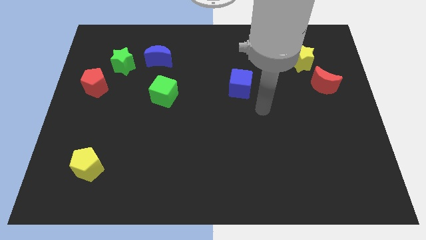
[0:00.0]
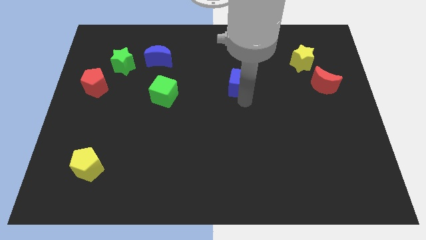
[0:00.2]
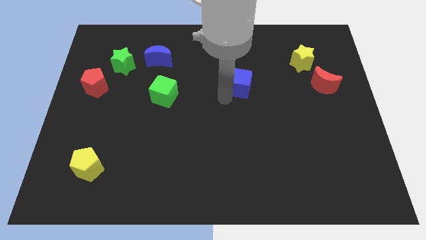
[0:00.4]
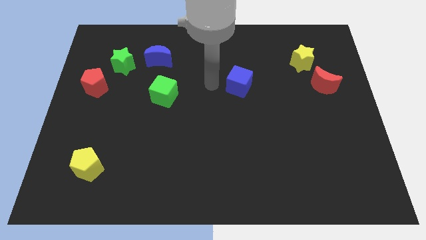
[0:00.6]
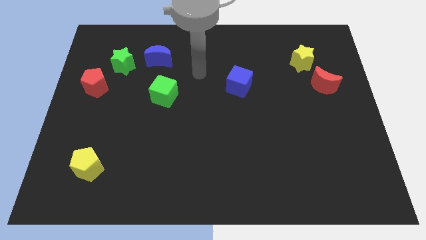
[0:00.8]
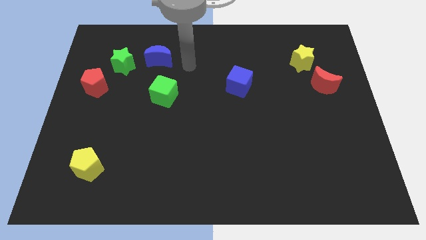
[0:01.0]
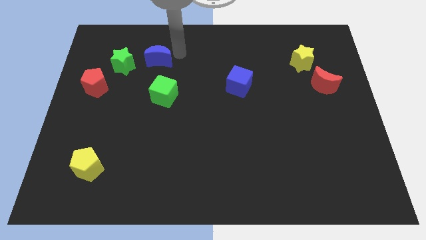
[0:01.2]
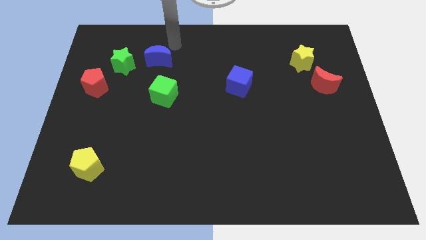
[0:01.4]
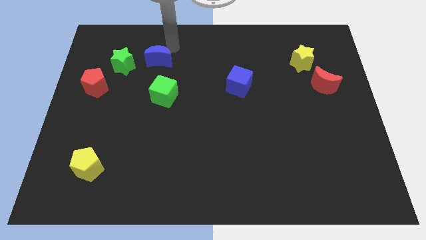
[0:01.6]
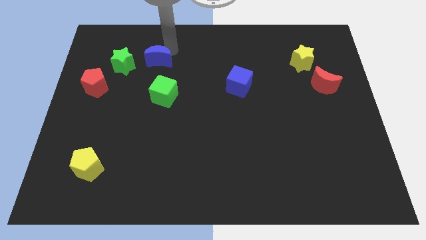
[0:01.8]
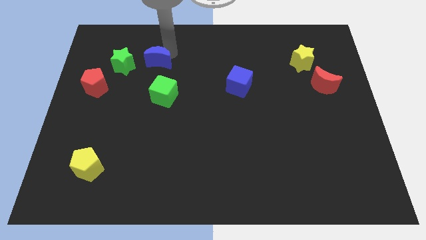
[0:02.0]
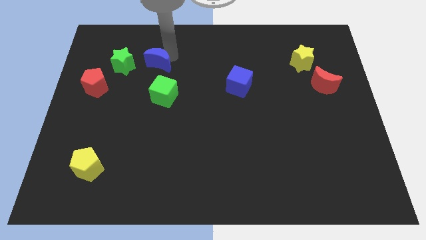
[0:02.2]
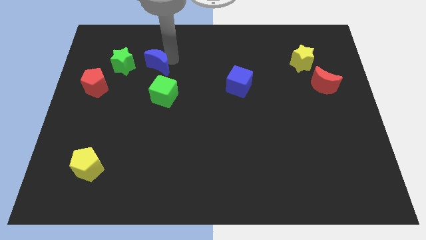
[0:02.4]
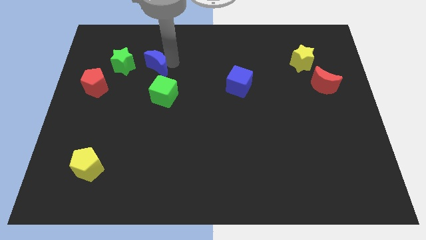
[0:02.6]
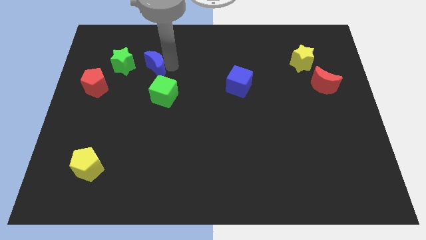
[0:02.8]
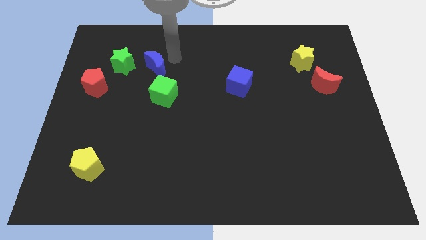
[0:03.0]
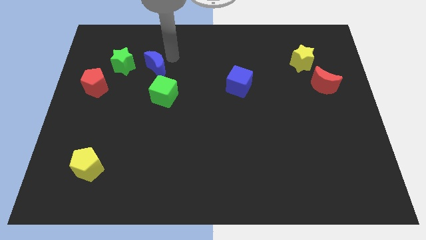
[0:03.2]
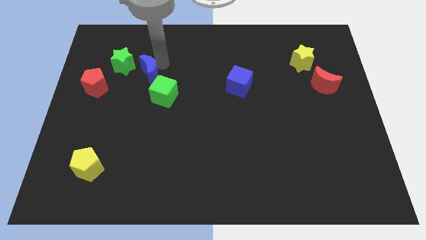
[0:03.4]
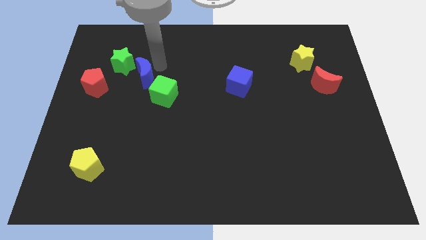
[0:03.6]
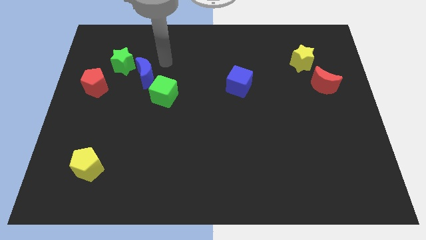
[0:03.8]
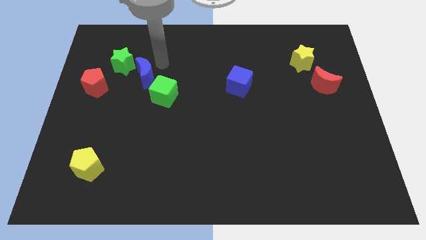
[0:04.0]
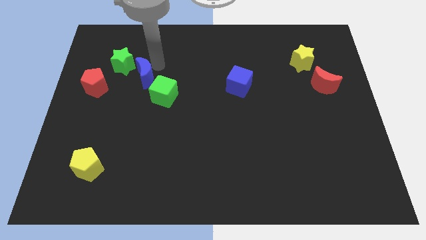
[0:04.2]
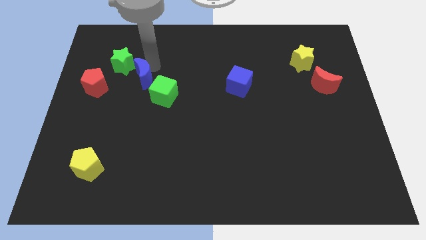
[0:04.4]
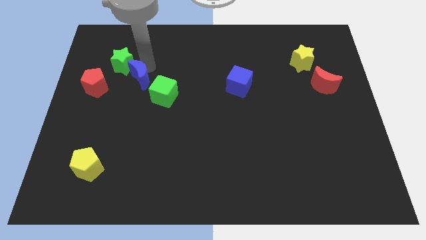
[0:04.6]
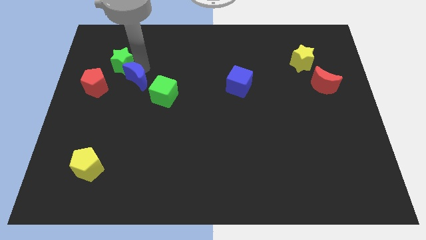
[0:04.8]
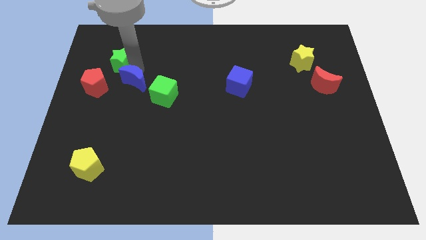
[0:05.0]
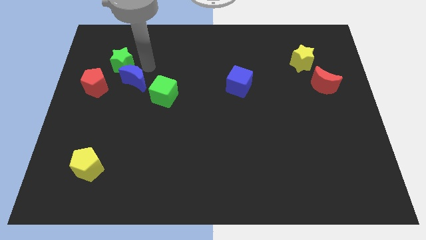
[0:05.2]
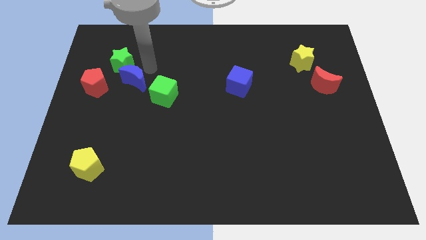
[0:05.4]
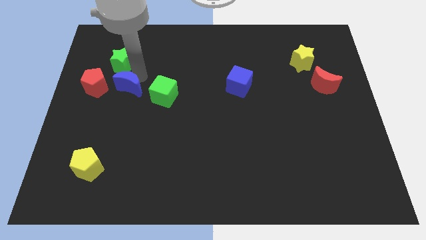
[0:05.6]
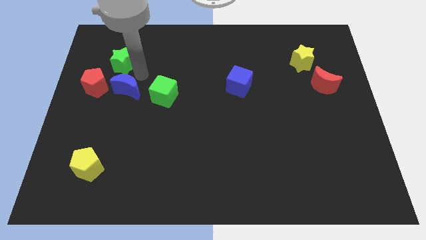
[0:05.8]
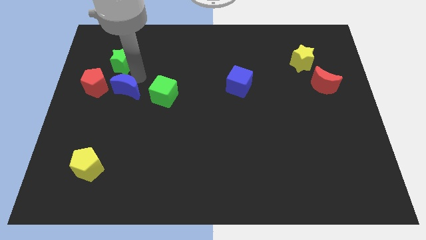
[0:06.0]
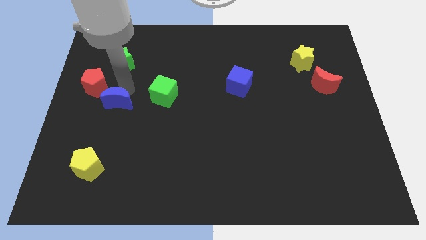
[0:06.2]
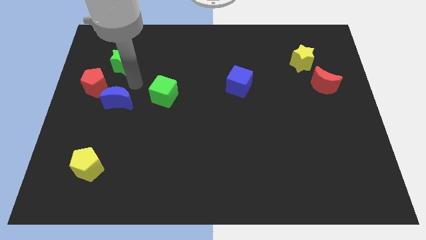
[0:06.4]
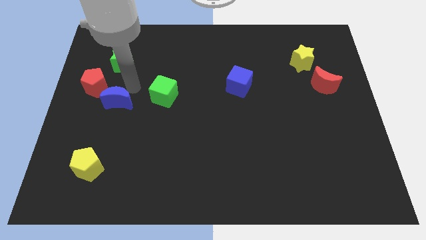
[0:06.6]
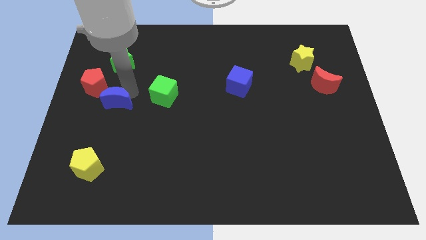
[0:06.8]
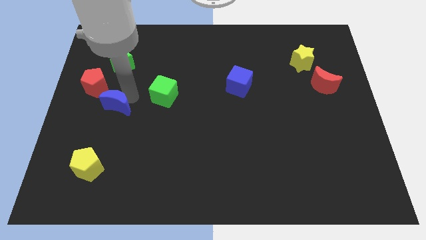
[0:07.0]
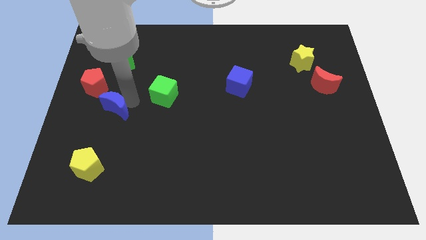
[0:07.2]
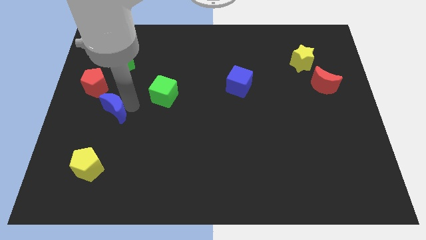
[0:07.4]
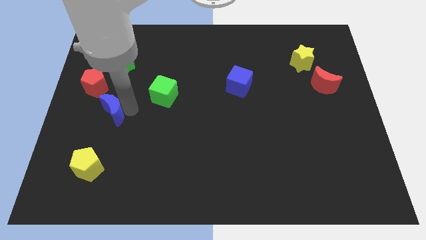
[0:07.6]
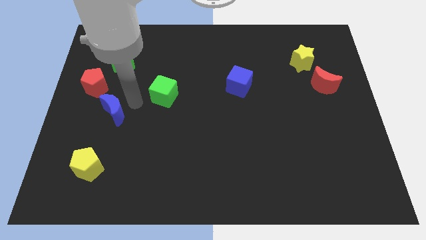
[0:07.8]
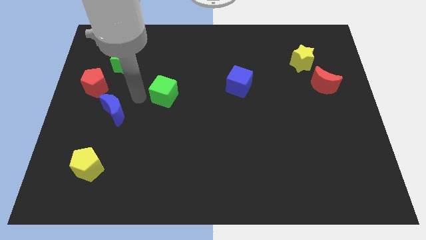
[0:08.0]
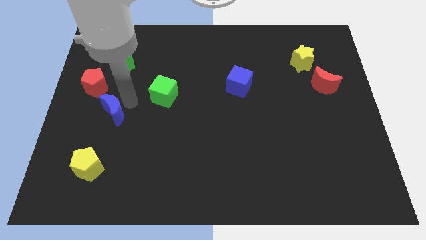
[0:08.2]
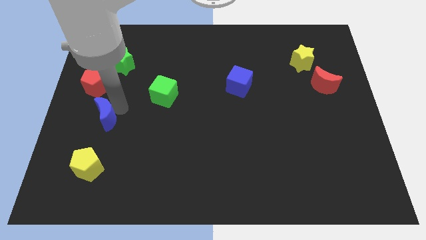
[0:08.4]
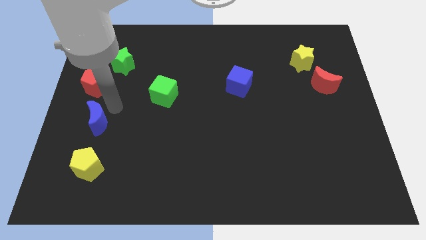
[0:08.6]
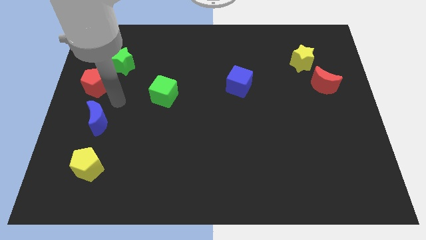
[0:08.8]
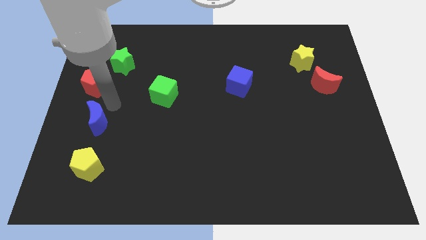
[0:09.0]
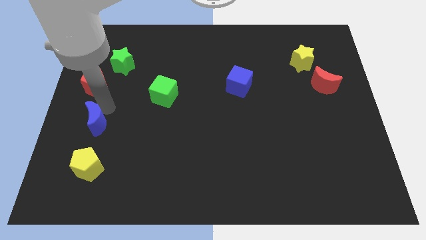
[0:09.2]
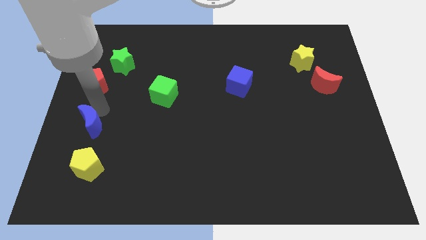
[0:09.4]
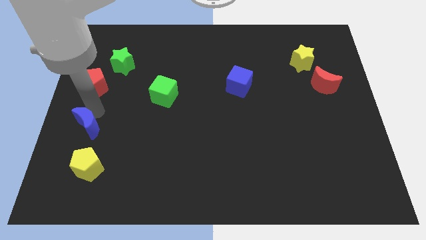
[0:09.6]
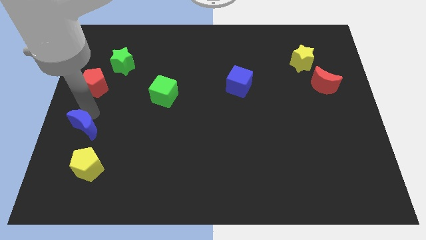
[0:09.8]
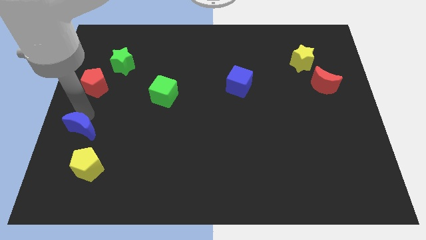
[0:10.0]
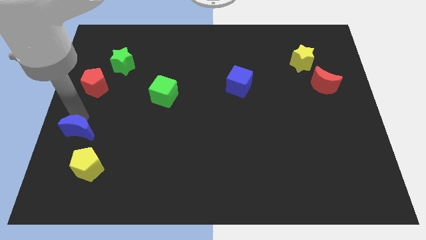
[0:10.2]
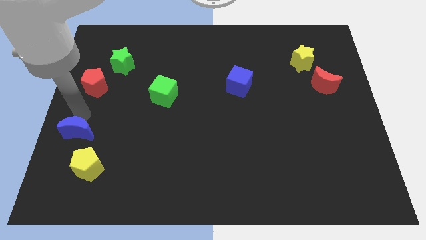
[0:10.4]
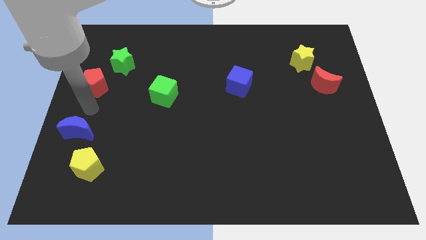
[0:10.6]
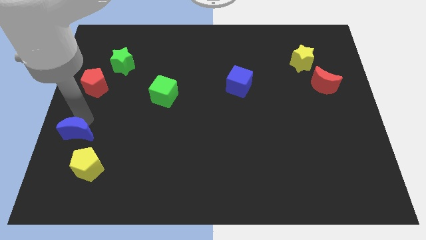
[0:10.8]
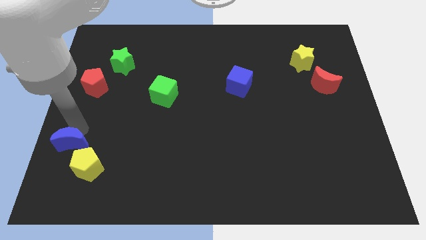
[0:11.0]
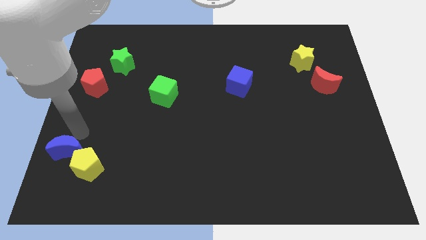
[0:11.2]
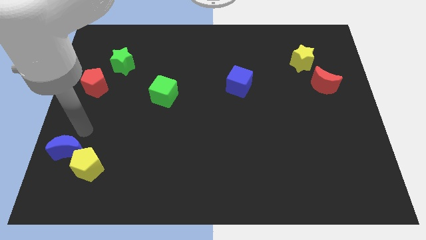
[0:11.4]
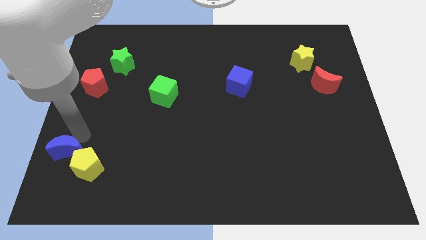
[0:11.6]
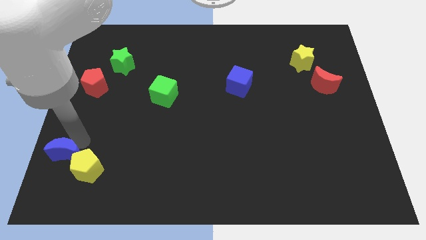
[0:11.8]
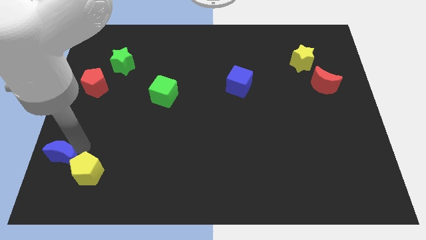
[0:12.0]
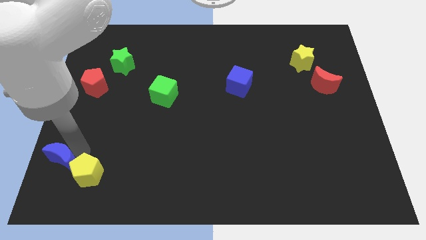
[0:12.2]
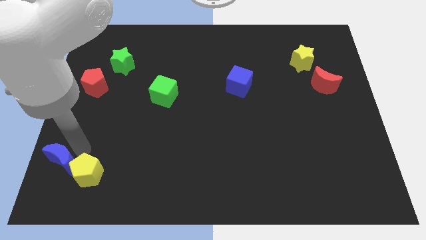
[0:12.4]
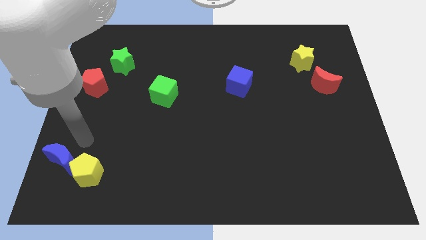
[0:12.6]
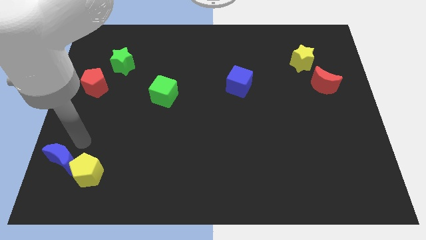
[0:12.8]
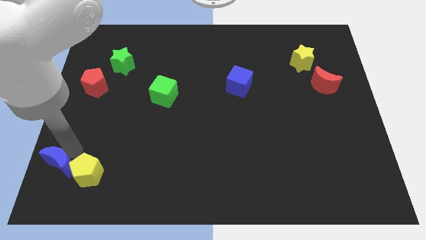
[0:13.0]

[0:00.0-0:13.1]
slide the blue moon to the bottom left corner

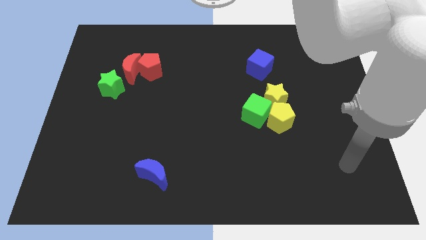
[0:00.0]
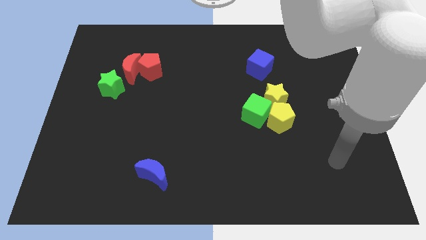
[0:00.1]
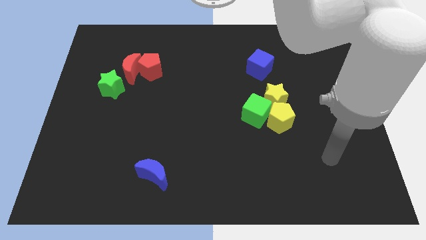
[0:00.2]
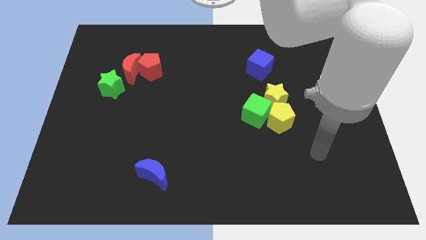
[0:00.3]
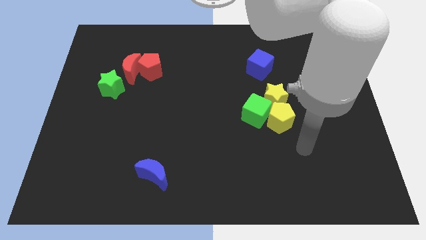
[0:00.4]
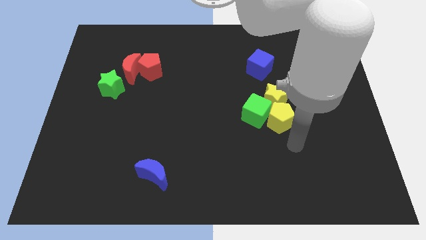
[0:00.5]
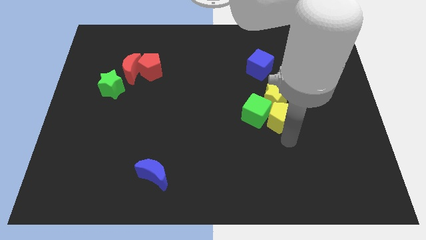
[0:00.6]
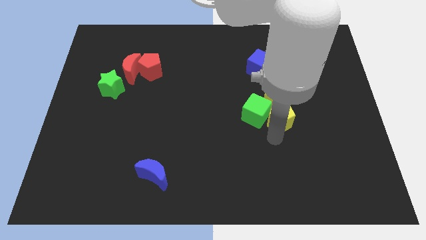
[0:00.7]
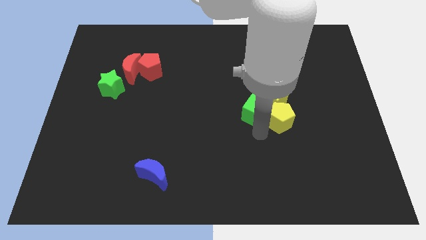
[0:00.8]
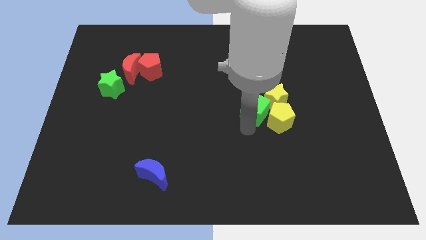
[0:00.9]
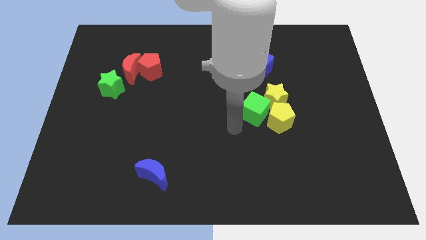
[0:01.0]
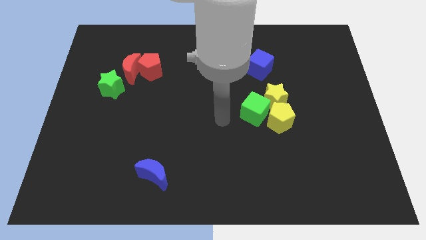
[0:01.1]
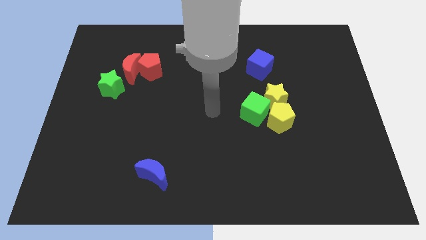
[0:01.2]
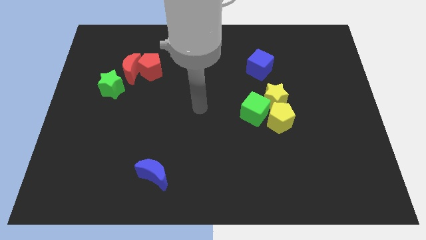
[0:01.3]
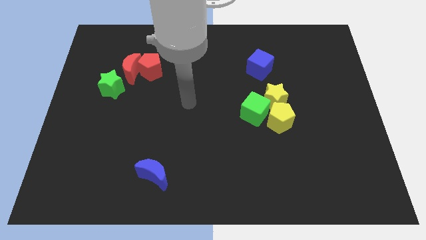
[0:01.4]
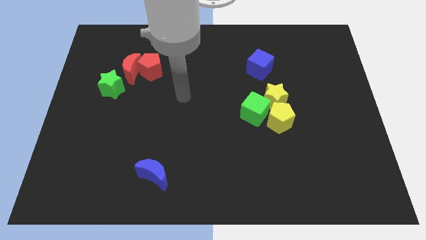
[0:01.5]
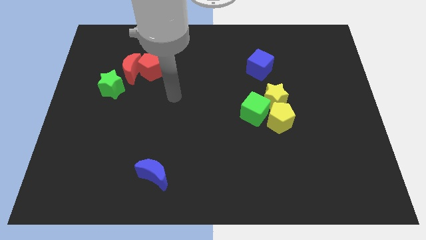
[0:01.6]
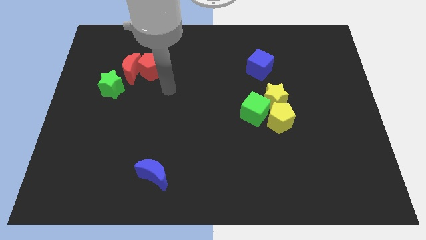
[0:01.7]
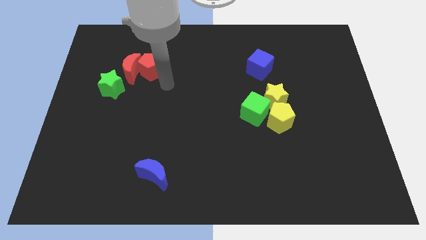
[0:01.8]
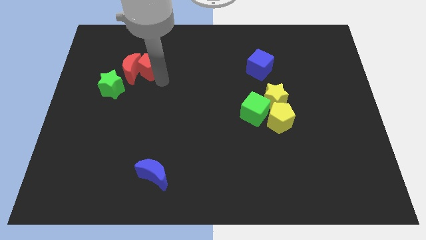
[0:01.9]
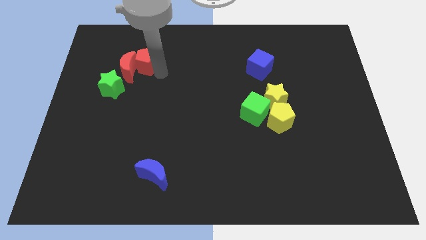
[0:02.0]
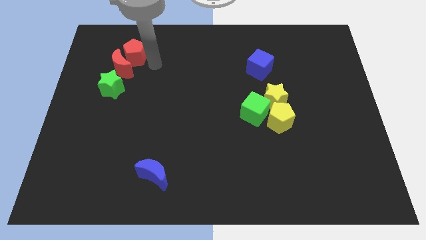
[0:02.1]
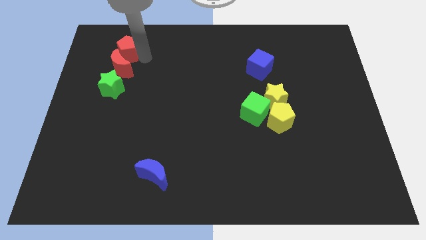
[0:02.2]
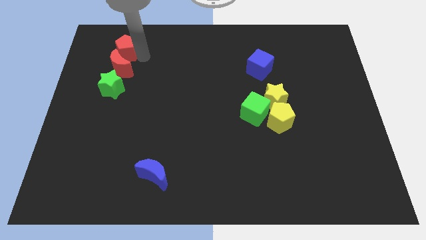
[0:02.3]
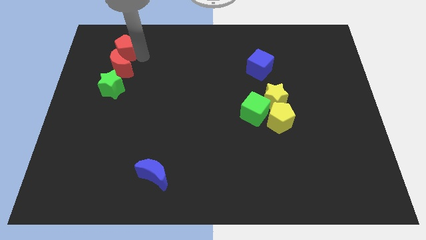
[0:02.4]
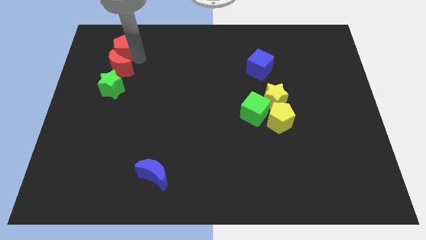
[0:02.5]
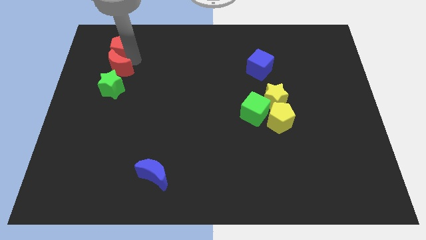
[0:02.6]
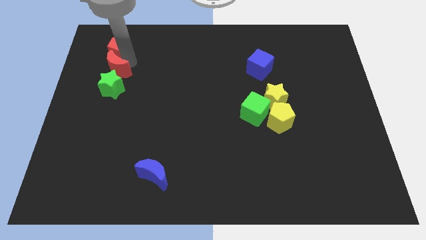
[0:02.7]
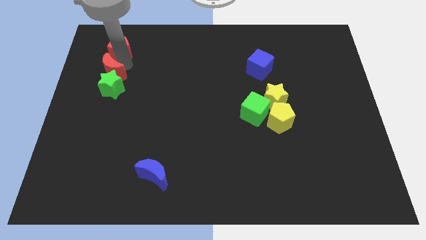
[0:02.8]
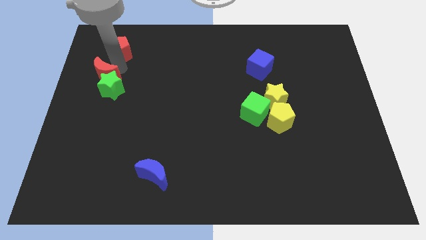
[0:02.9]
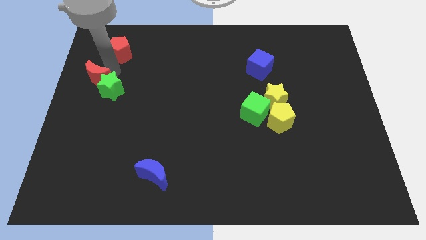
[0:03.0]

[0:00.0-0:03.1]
move the red moon to the left side
